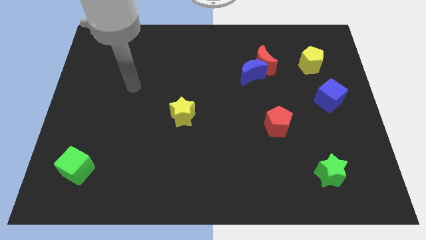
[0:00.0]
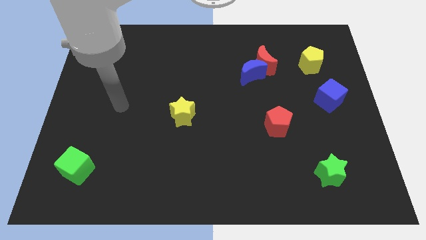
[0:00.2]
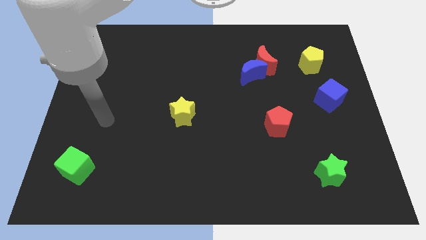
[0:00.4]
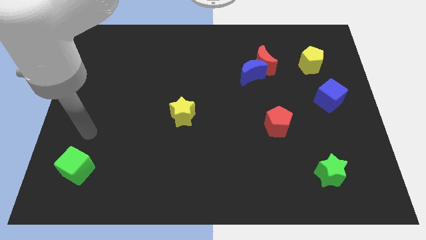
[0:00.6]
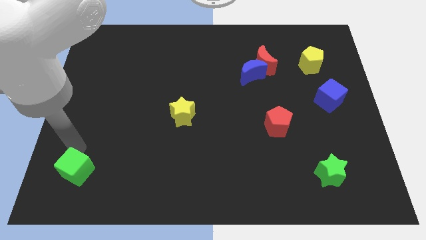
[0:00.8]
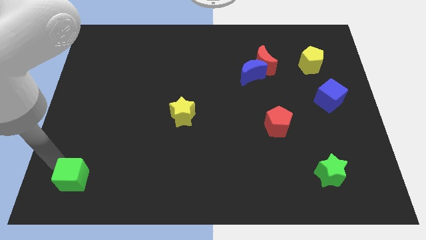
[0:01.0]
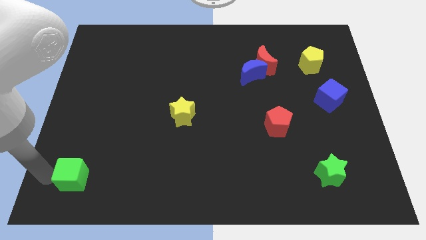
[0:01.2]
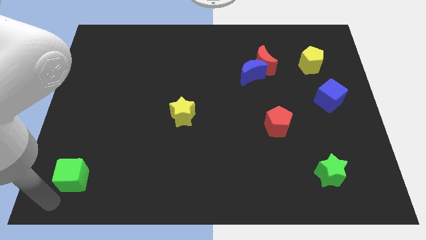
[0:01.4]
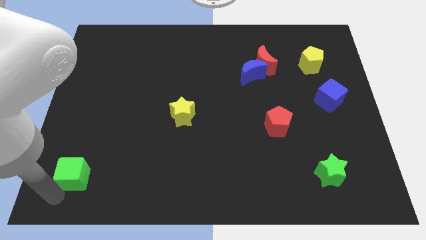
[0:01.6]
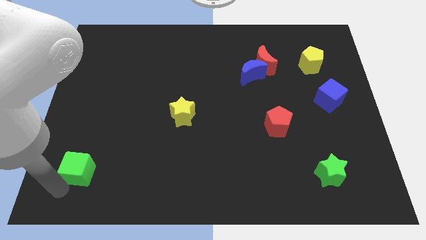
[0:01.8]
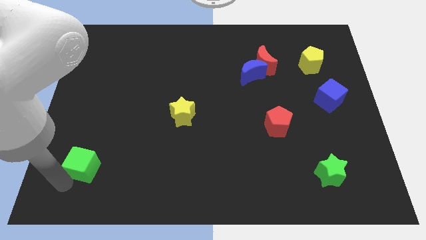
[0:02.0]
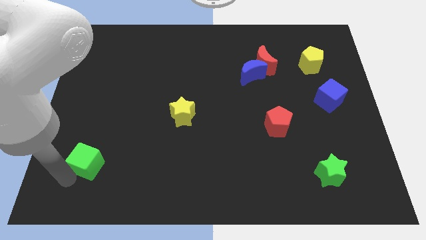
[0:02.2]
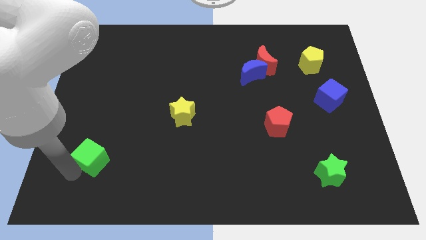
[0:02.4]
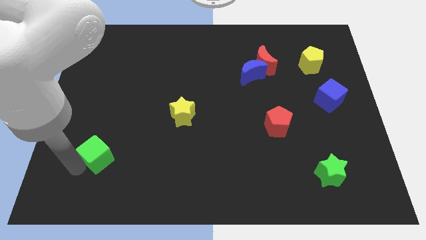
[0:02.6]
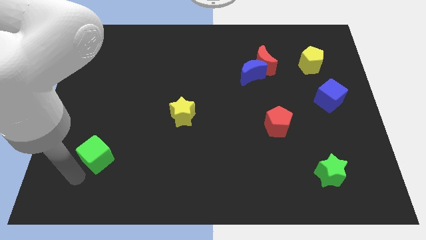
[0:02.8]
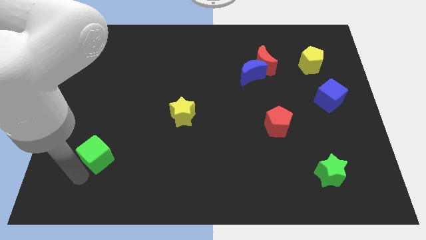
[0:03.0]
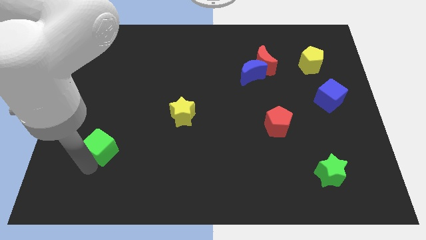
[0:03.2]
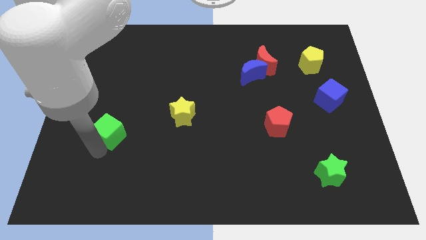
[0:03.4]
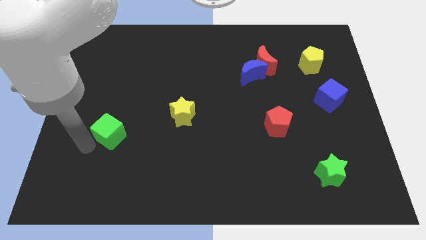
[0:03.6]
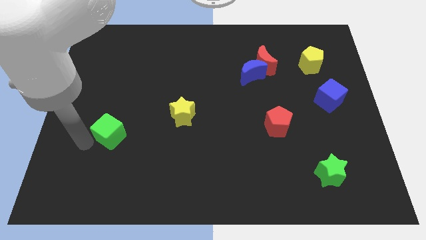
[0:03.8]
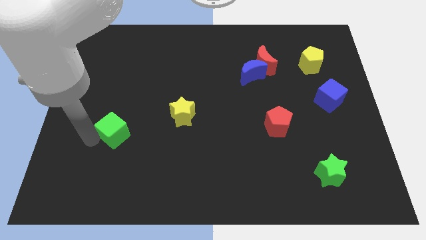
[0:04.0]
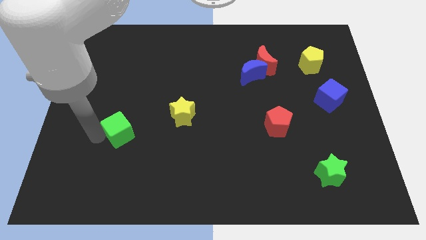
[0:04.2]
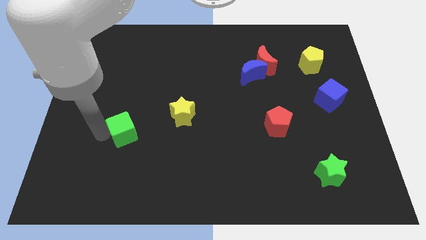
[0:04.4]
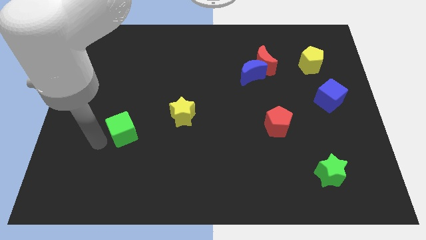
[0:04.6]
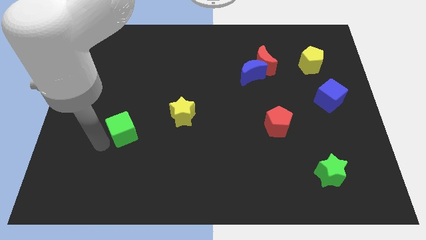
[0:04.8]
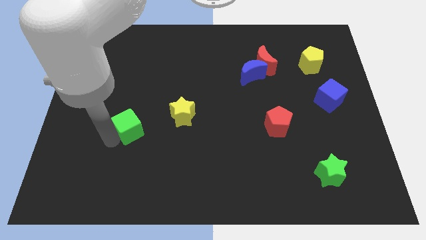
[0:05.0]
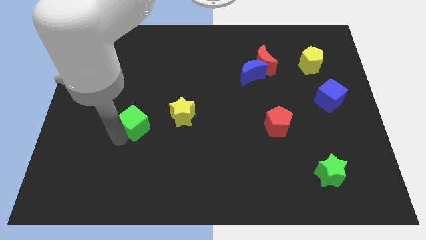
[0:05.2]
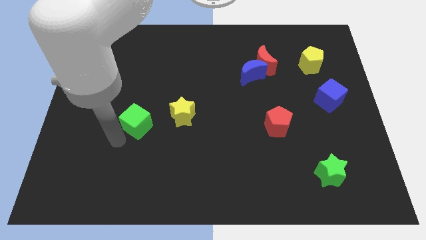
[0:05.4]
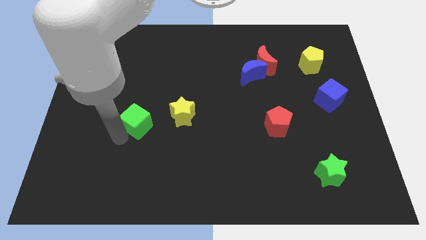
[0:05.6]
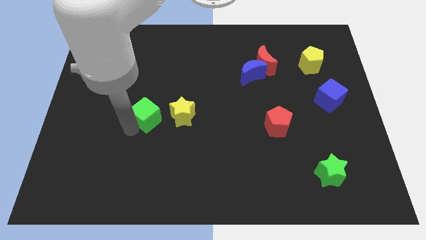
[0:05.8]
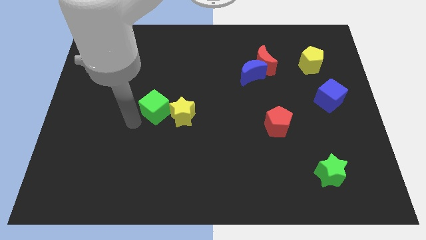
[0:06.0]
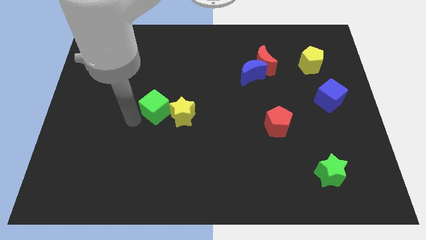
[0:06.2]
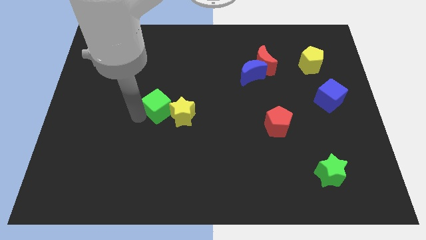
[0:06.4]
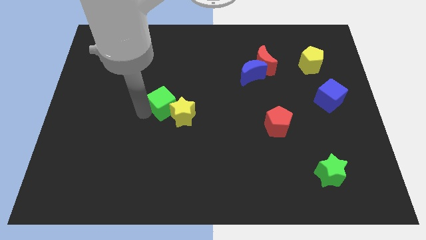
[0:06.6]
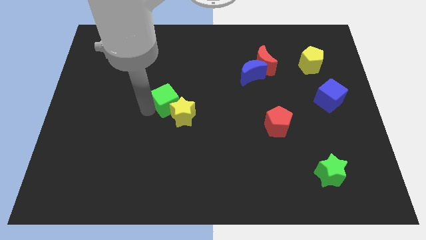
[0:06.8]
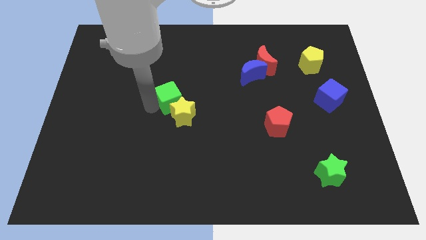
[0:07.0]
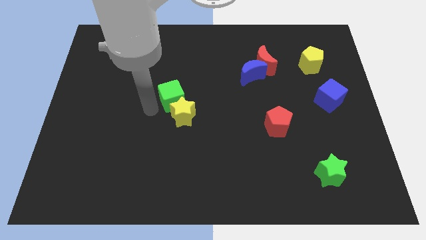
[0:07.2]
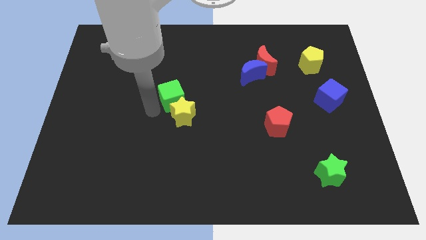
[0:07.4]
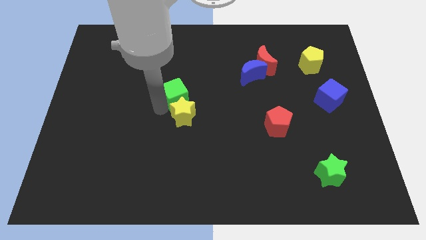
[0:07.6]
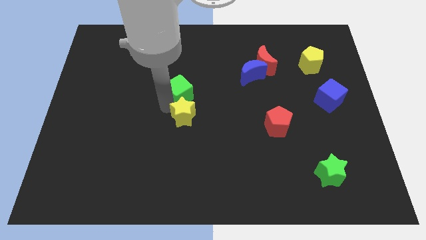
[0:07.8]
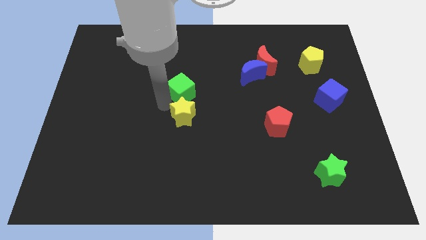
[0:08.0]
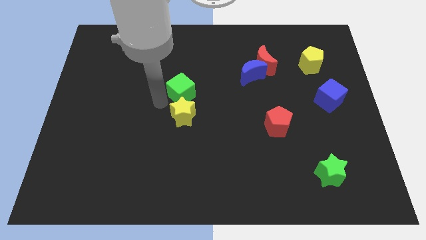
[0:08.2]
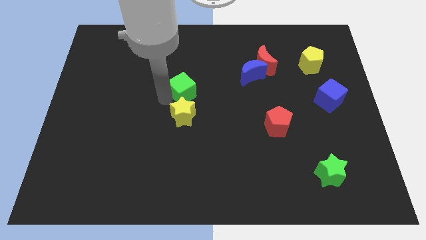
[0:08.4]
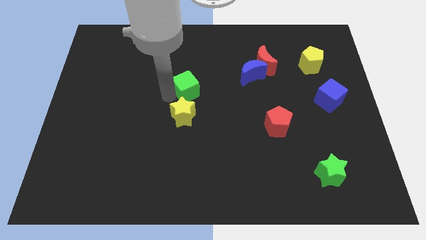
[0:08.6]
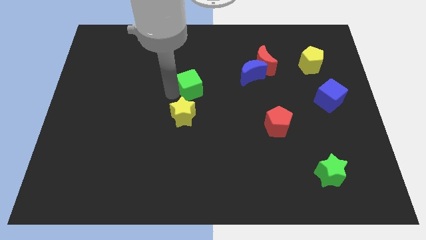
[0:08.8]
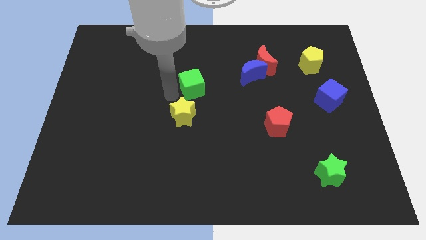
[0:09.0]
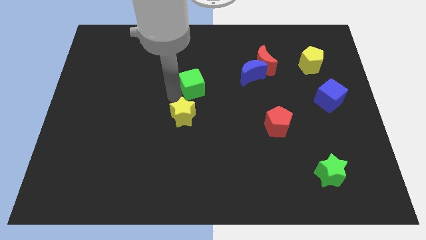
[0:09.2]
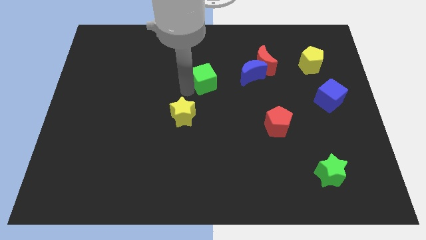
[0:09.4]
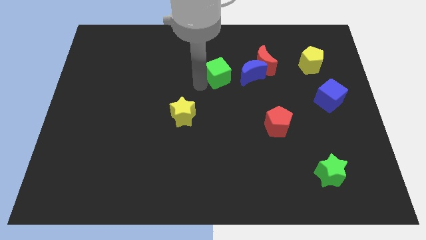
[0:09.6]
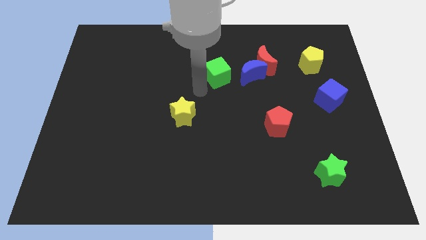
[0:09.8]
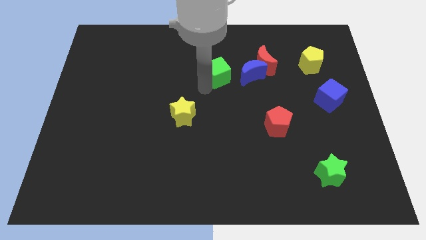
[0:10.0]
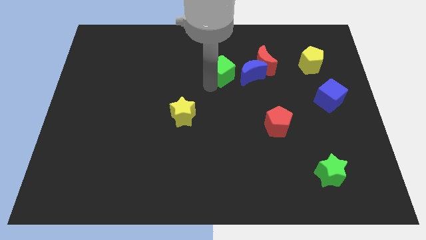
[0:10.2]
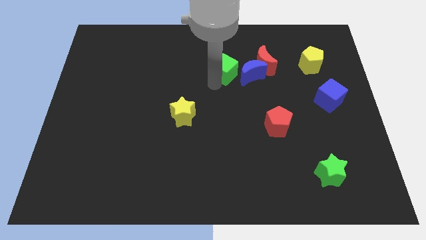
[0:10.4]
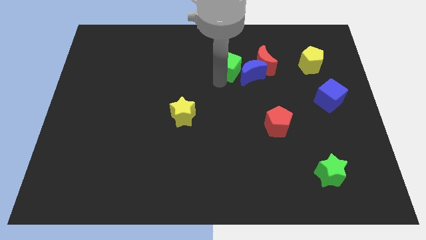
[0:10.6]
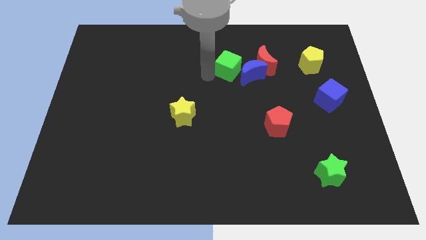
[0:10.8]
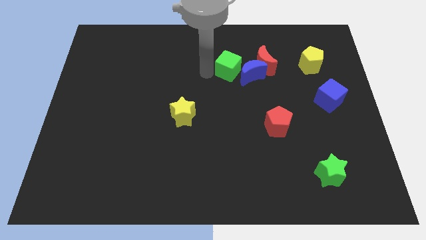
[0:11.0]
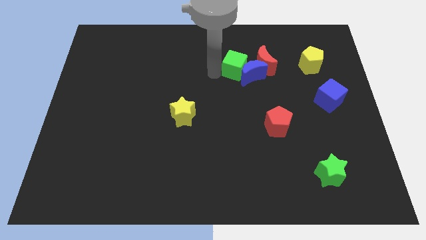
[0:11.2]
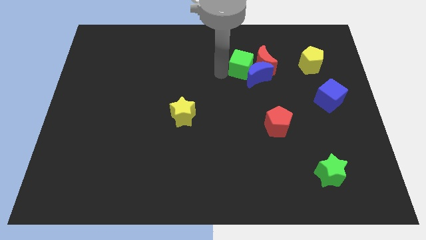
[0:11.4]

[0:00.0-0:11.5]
put the green cube towards the red moon

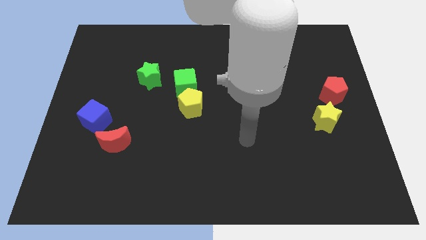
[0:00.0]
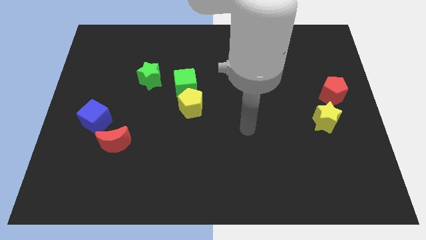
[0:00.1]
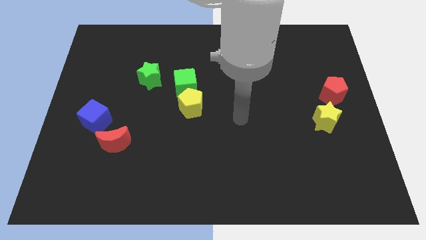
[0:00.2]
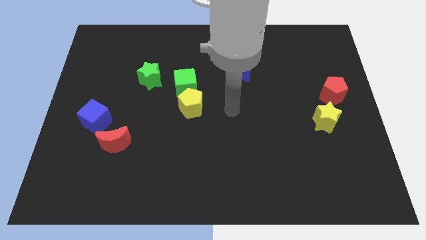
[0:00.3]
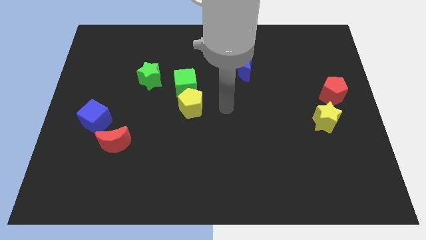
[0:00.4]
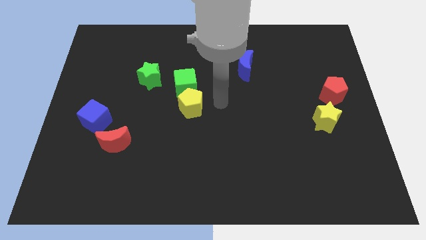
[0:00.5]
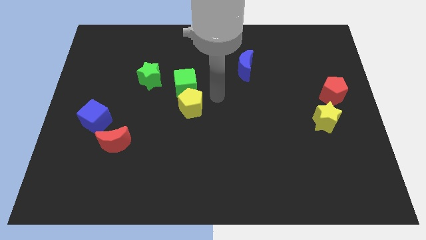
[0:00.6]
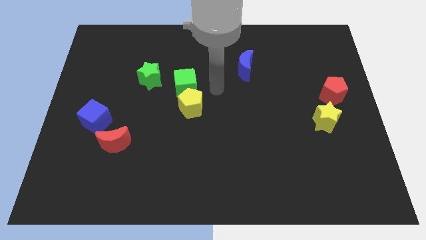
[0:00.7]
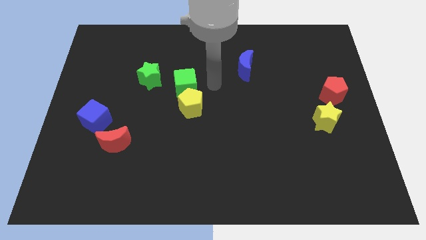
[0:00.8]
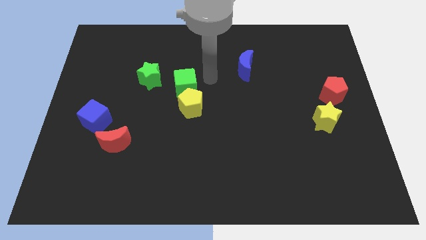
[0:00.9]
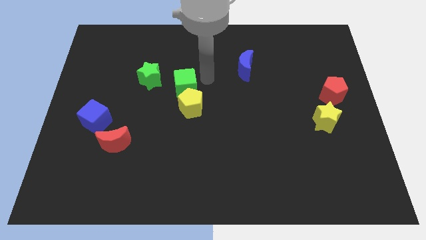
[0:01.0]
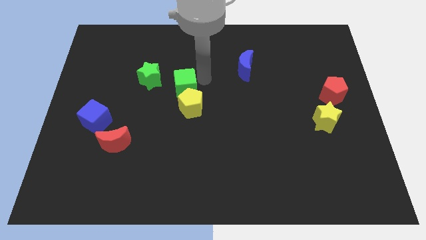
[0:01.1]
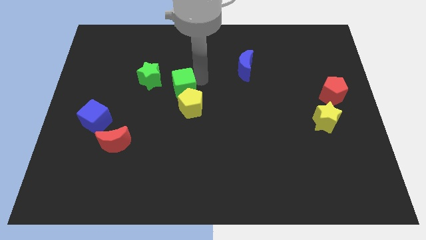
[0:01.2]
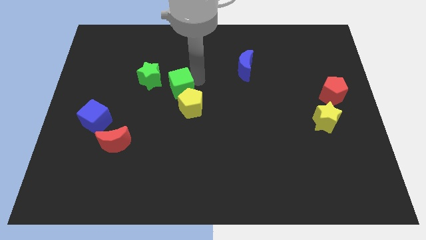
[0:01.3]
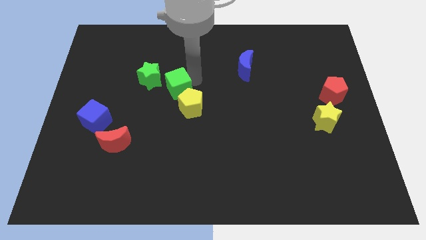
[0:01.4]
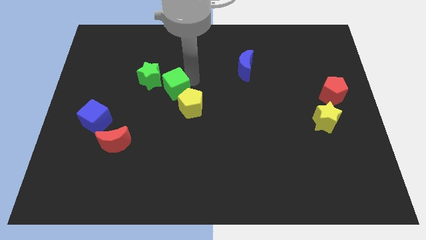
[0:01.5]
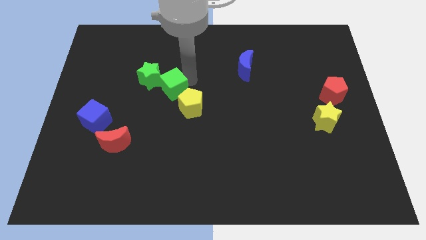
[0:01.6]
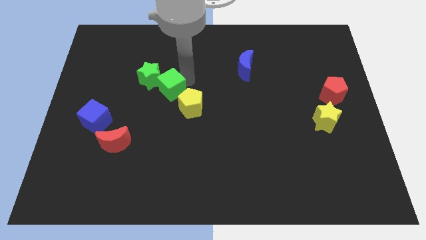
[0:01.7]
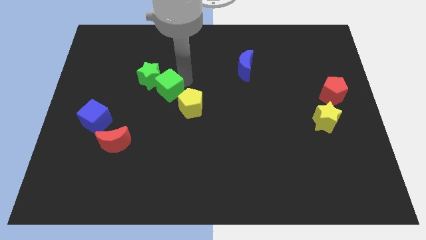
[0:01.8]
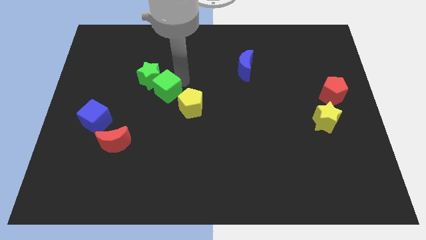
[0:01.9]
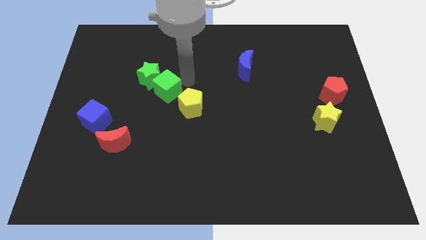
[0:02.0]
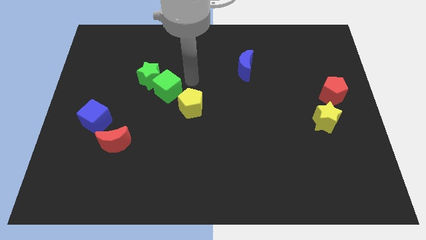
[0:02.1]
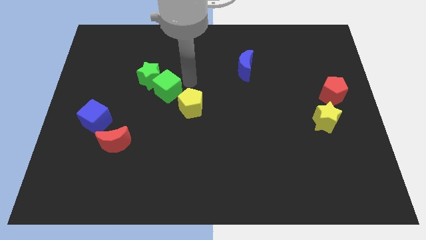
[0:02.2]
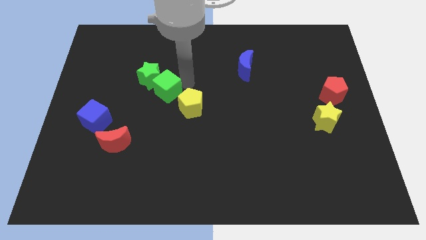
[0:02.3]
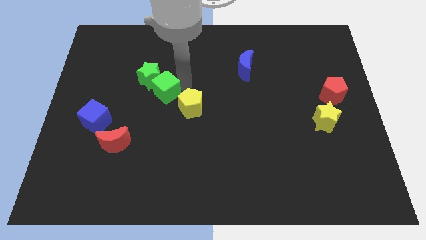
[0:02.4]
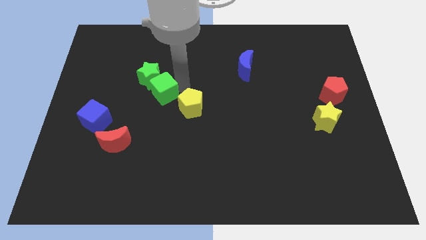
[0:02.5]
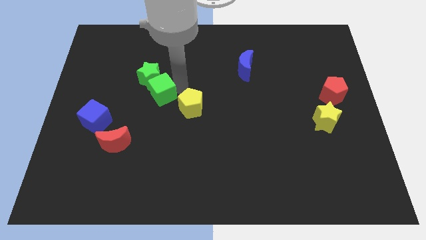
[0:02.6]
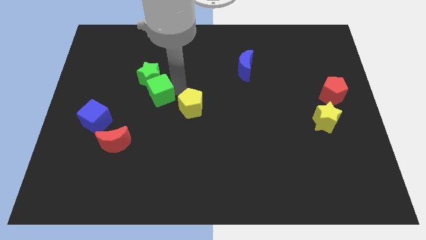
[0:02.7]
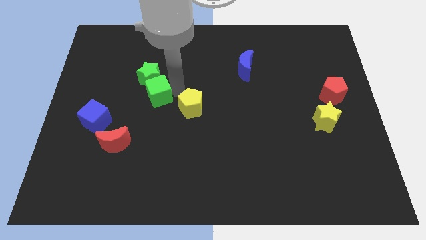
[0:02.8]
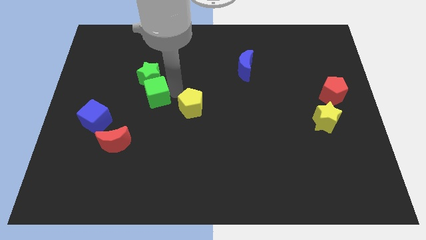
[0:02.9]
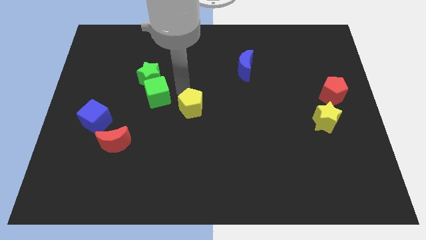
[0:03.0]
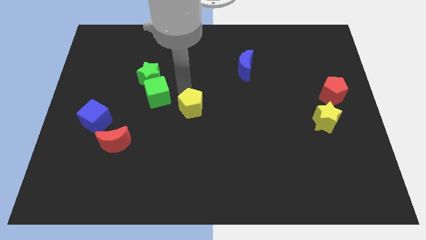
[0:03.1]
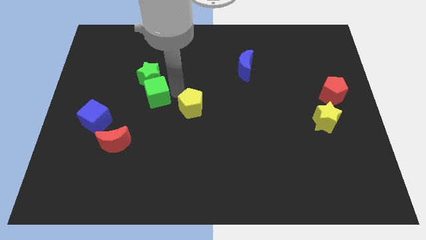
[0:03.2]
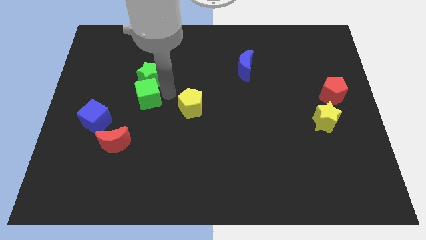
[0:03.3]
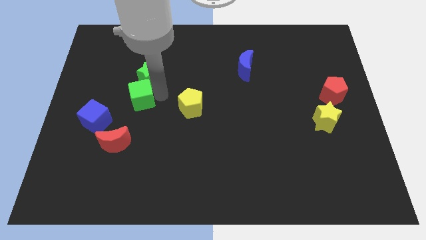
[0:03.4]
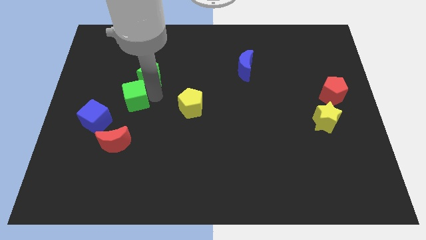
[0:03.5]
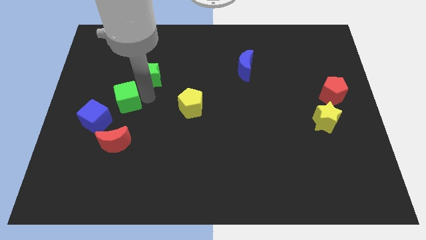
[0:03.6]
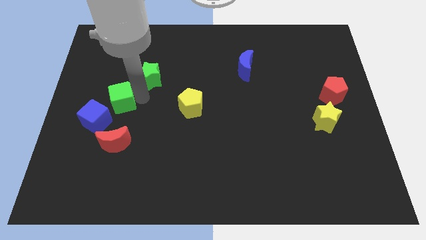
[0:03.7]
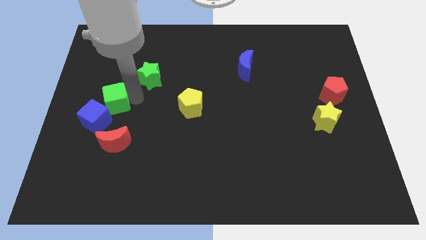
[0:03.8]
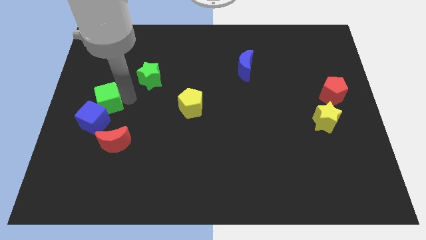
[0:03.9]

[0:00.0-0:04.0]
put the green cube towards the blue cube
